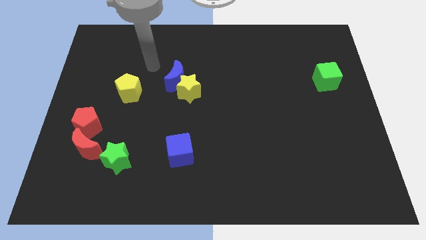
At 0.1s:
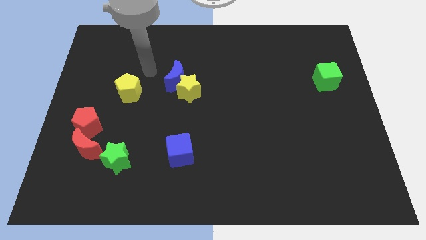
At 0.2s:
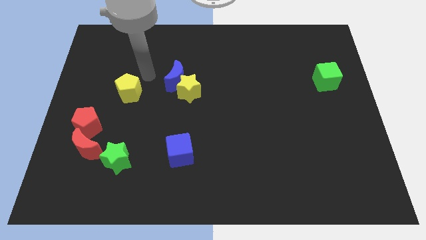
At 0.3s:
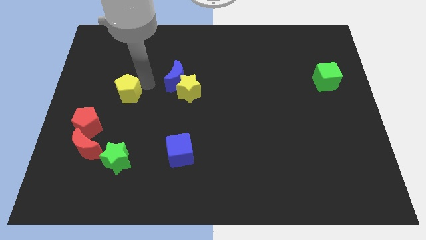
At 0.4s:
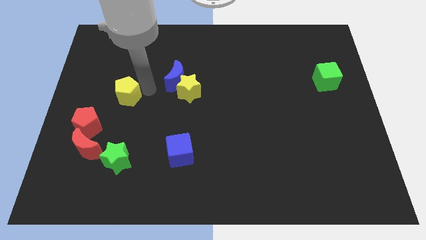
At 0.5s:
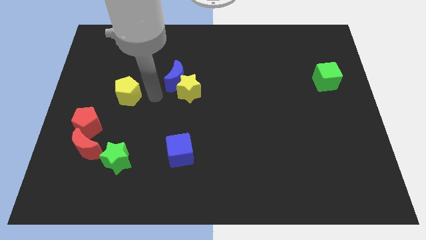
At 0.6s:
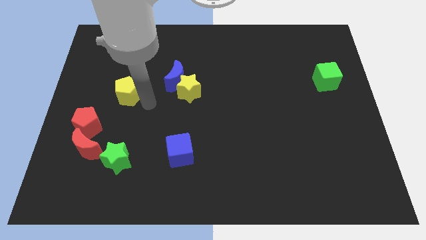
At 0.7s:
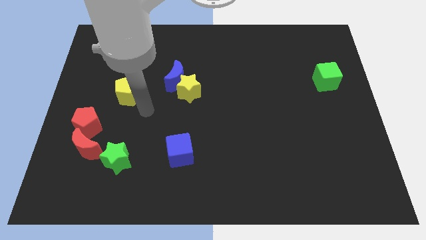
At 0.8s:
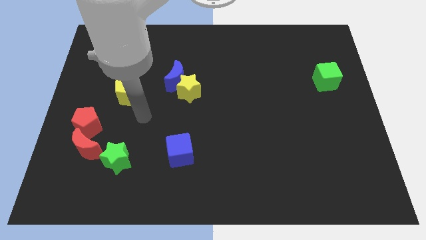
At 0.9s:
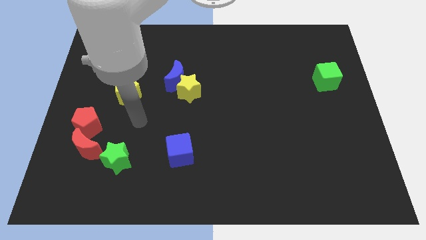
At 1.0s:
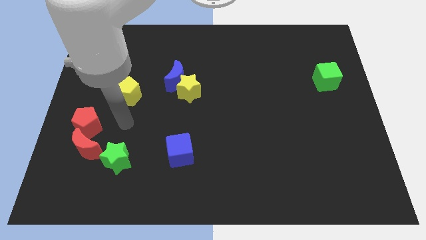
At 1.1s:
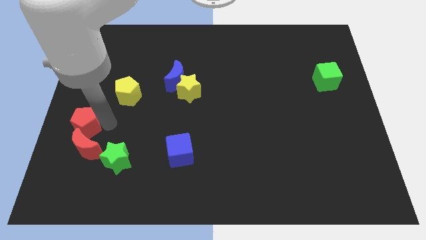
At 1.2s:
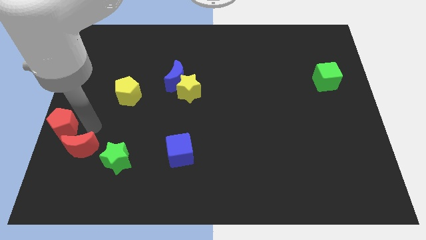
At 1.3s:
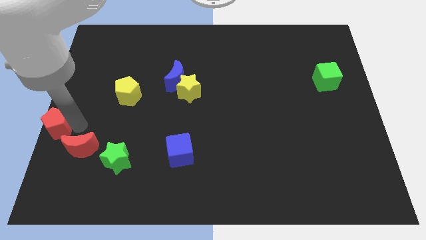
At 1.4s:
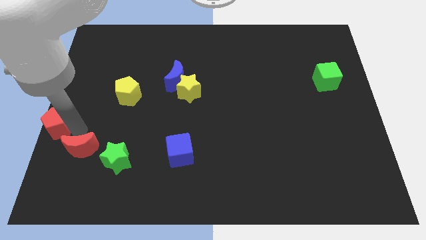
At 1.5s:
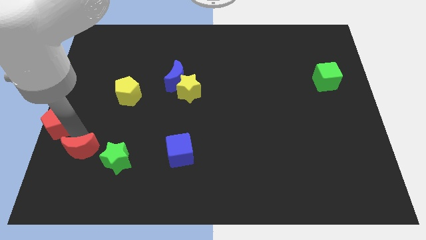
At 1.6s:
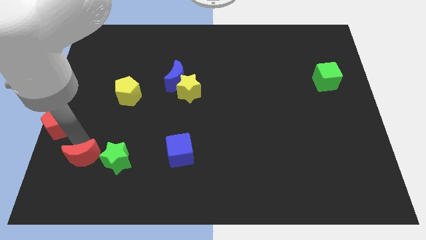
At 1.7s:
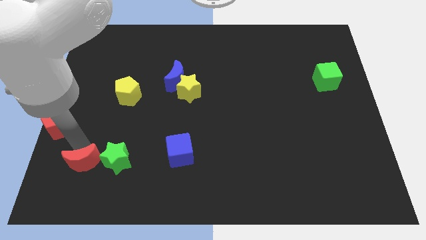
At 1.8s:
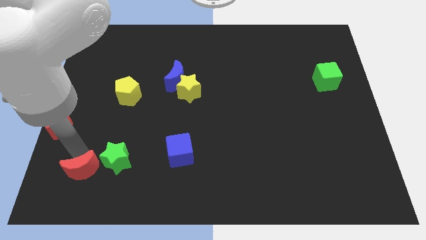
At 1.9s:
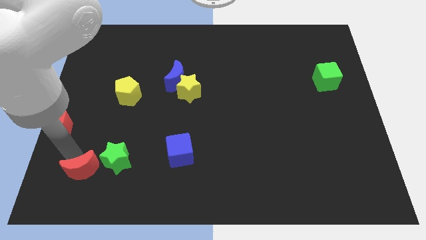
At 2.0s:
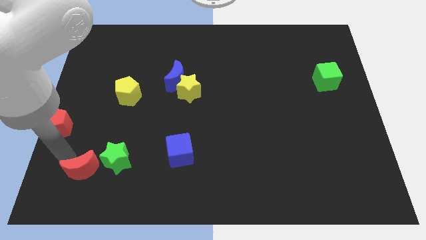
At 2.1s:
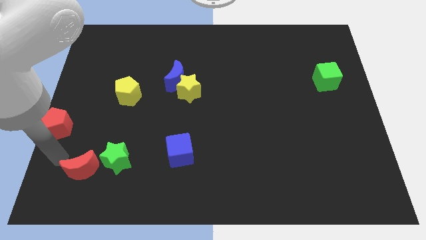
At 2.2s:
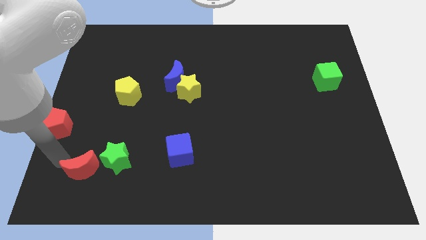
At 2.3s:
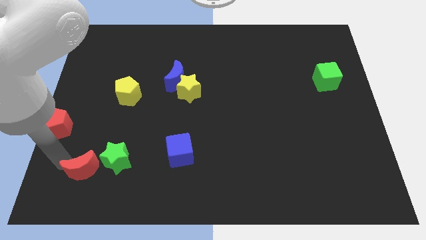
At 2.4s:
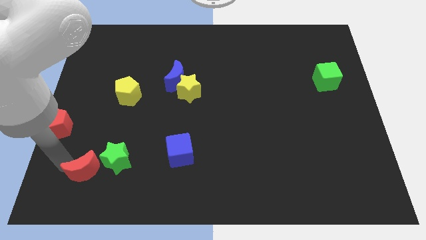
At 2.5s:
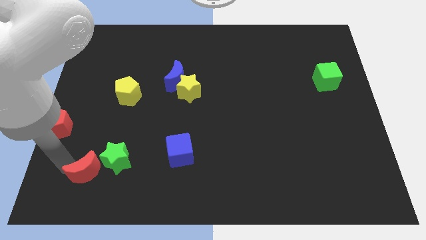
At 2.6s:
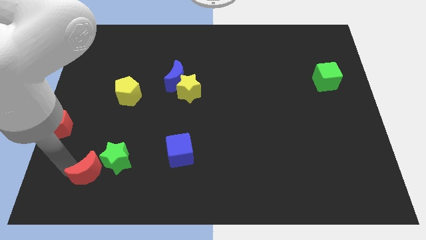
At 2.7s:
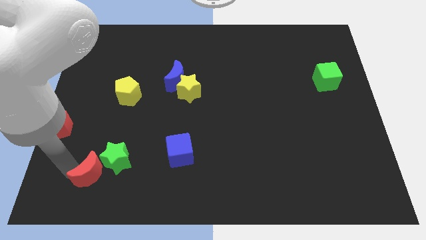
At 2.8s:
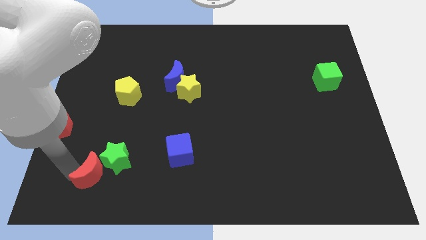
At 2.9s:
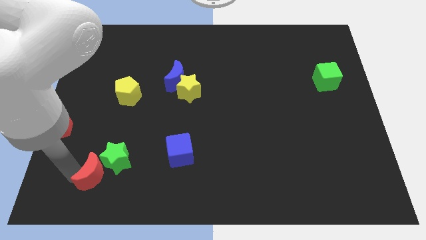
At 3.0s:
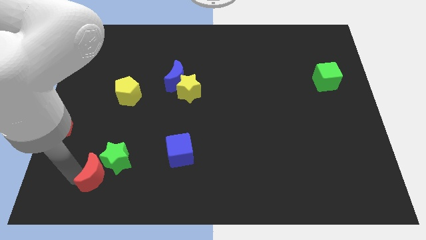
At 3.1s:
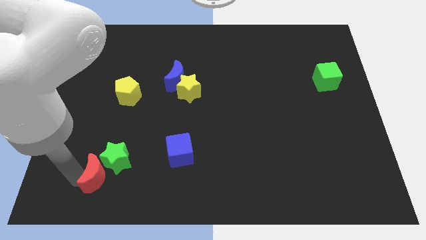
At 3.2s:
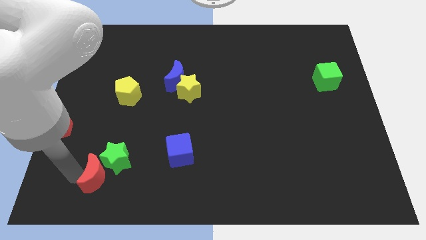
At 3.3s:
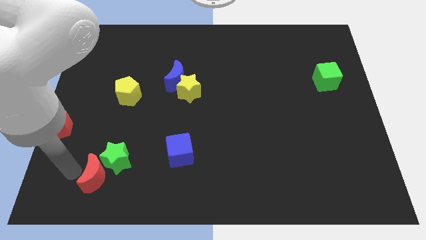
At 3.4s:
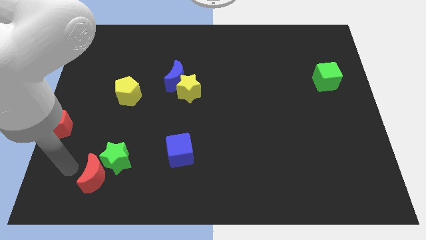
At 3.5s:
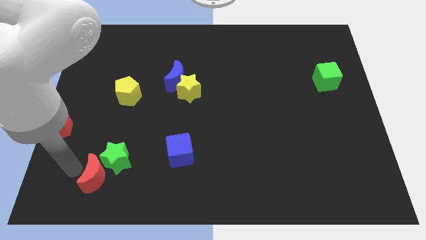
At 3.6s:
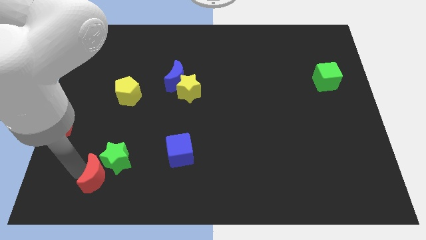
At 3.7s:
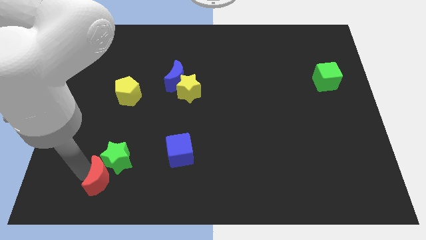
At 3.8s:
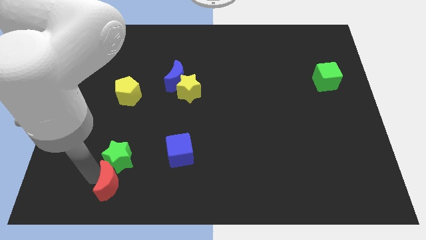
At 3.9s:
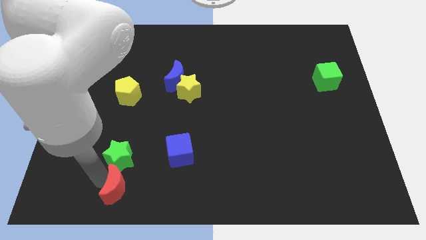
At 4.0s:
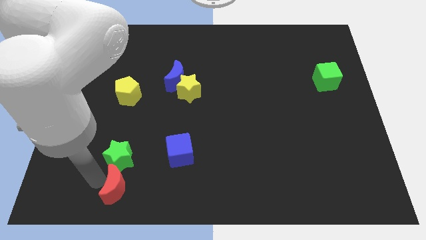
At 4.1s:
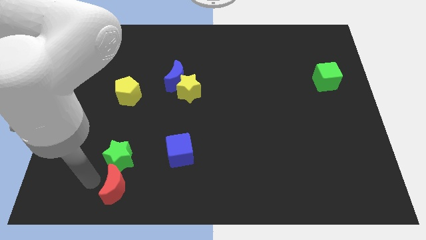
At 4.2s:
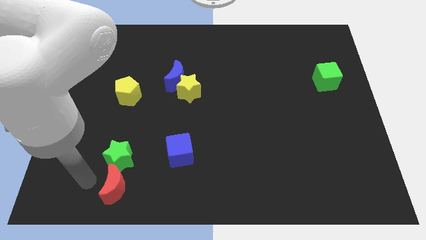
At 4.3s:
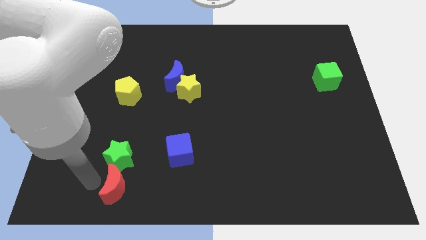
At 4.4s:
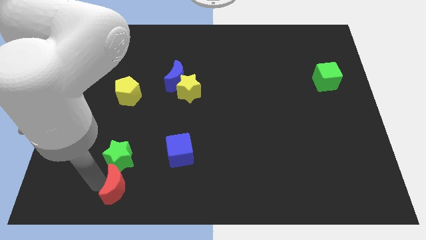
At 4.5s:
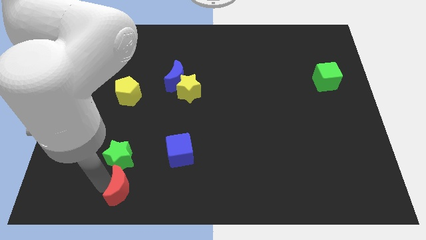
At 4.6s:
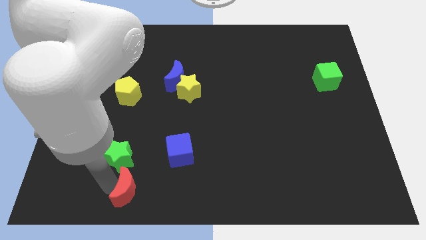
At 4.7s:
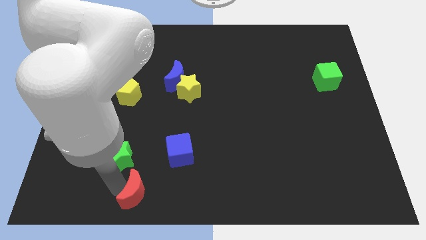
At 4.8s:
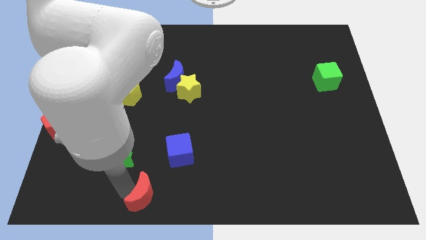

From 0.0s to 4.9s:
slide the red moon to the bottom

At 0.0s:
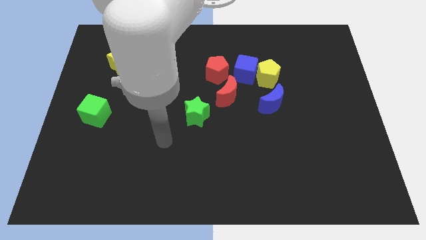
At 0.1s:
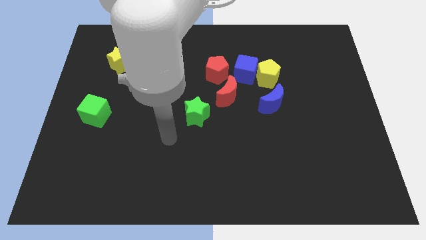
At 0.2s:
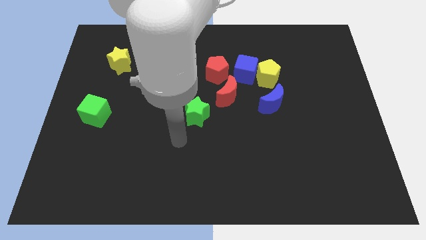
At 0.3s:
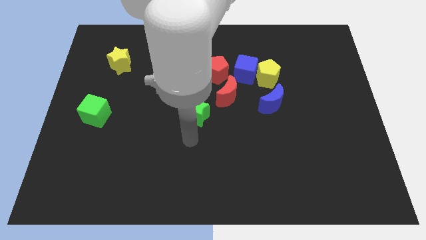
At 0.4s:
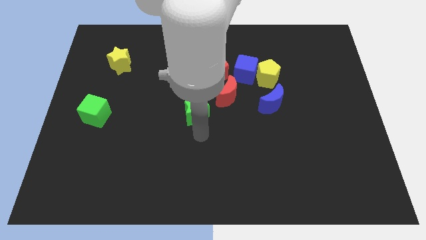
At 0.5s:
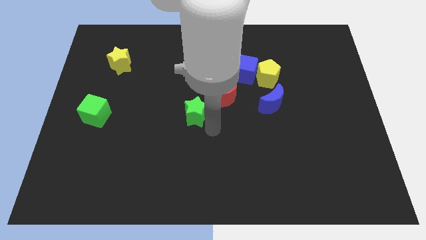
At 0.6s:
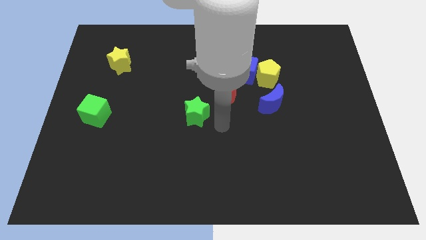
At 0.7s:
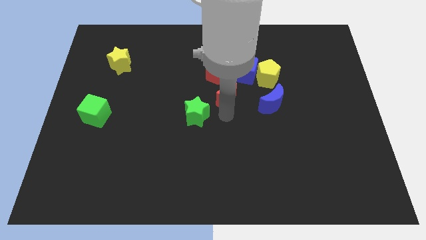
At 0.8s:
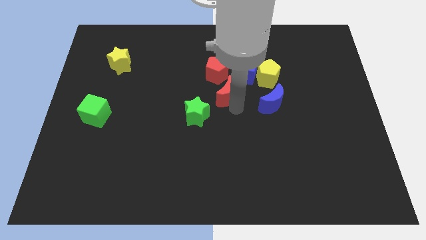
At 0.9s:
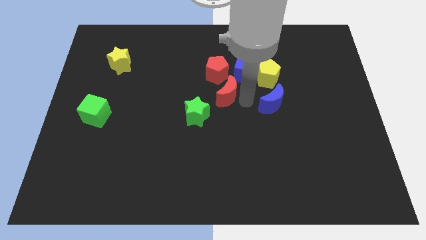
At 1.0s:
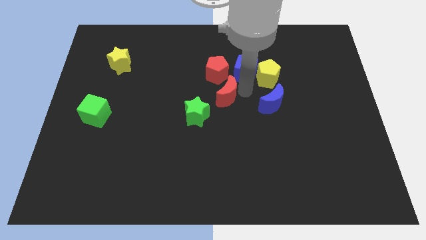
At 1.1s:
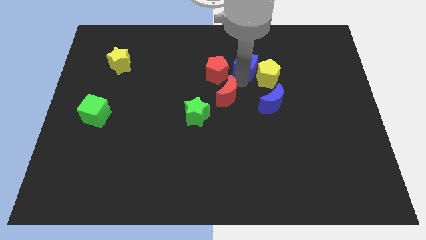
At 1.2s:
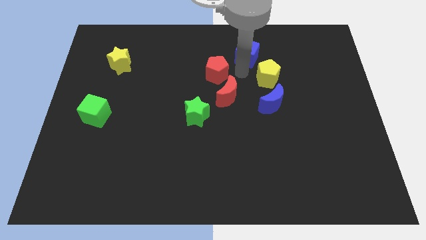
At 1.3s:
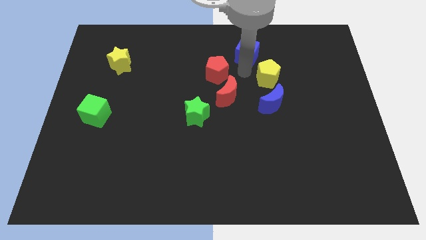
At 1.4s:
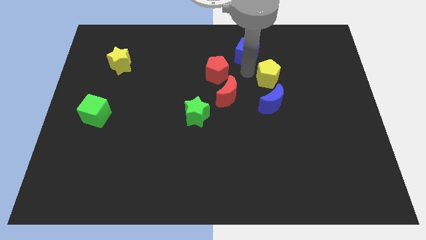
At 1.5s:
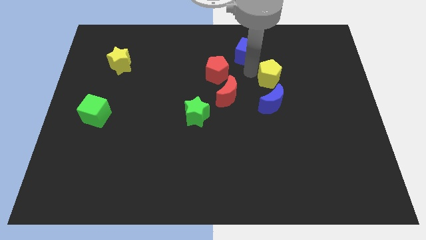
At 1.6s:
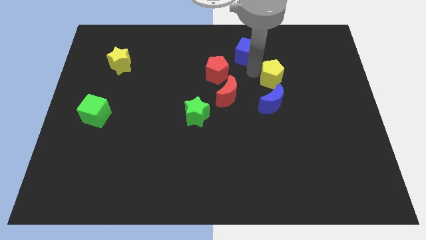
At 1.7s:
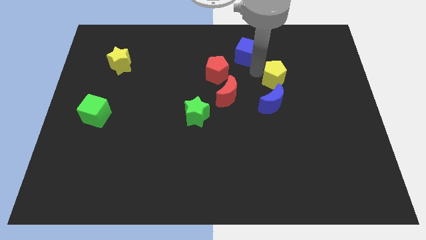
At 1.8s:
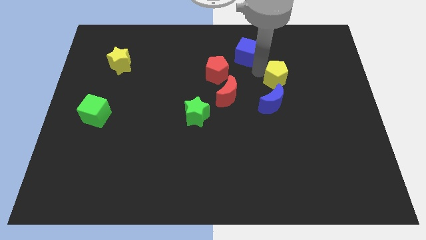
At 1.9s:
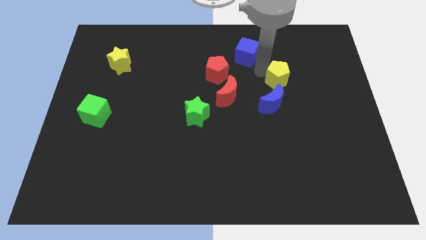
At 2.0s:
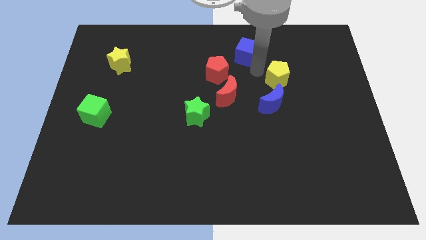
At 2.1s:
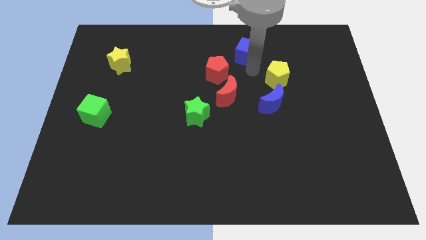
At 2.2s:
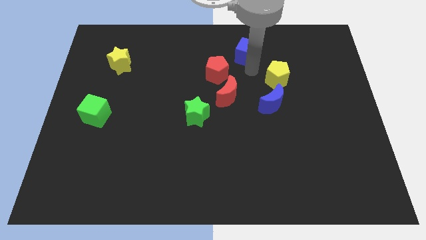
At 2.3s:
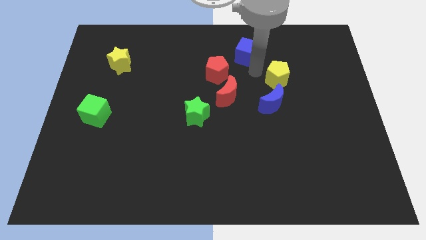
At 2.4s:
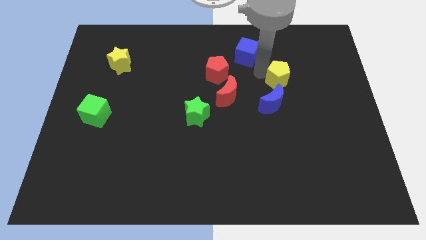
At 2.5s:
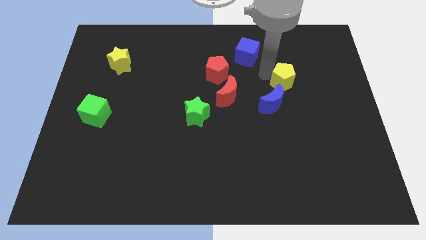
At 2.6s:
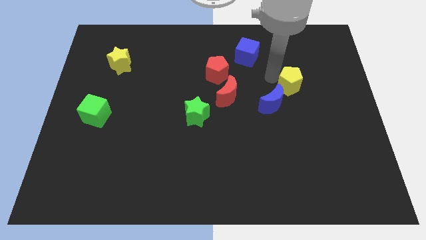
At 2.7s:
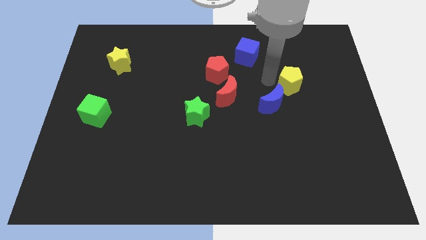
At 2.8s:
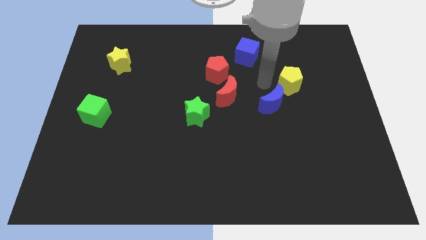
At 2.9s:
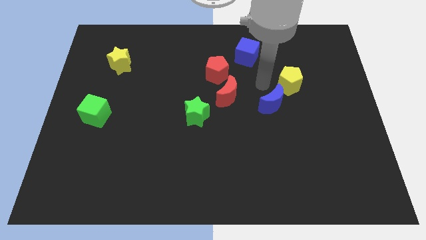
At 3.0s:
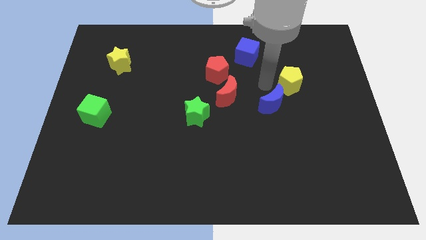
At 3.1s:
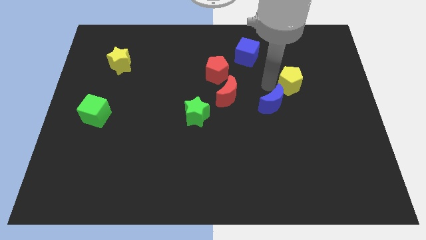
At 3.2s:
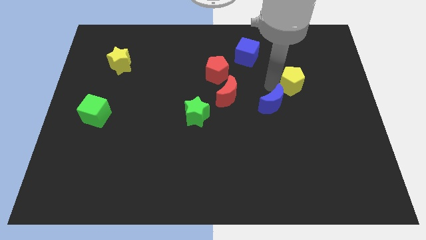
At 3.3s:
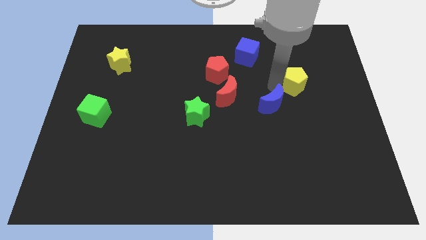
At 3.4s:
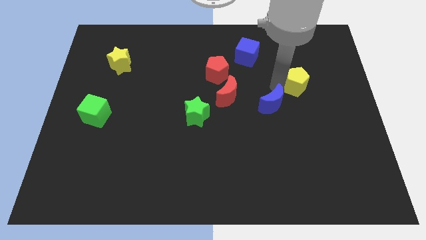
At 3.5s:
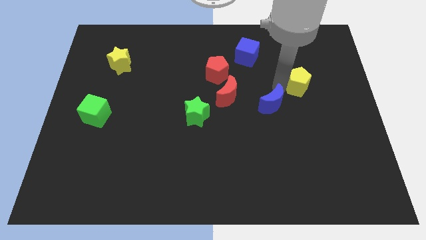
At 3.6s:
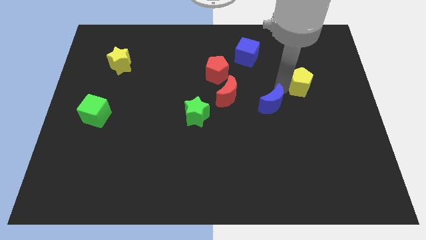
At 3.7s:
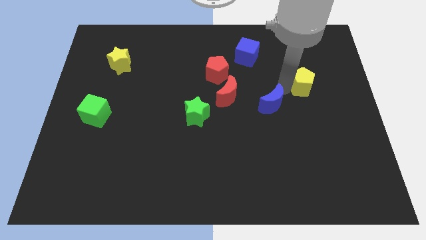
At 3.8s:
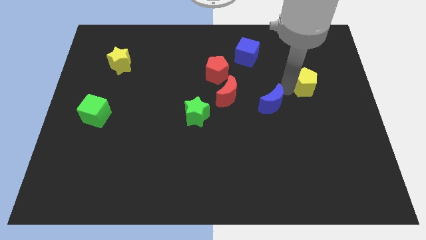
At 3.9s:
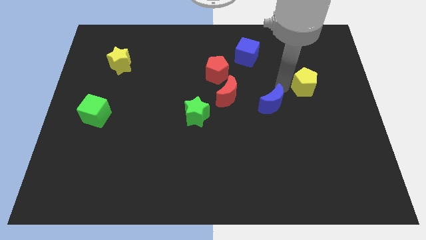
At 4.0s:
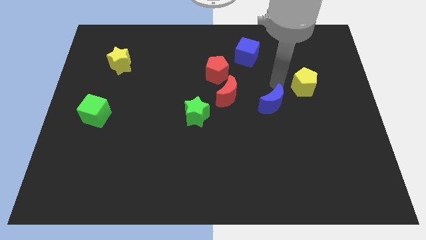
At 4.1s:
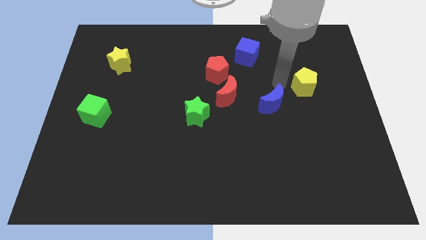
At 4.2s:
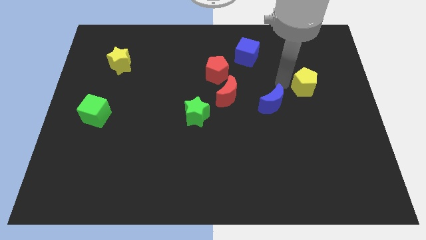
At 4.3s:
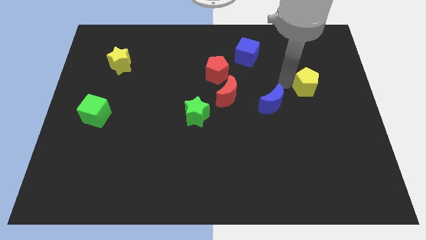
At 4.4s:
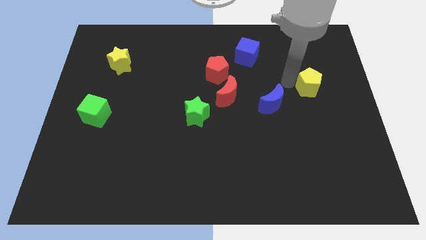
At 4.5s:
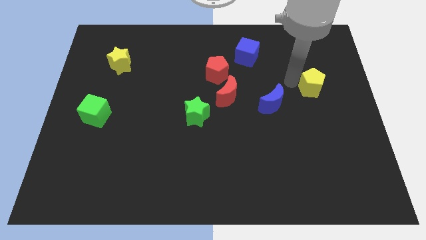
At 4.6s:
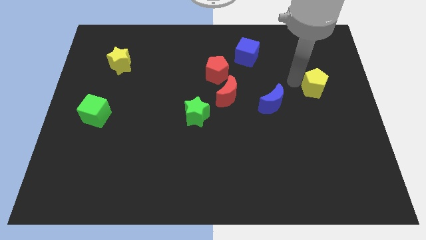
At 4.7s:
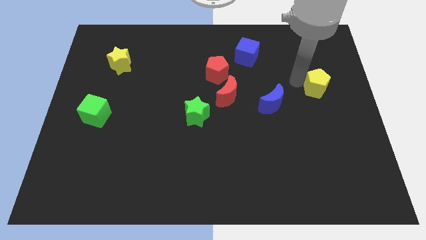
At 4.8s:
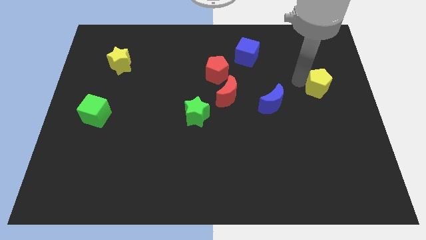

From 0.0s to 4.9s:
slide the yellow pentagon to the center right
